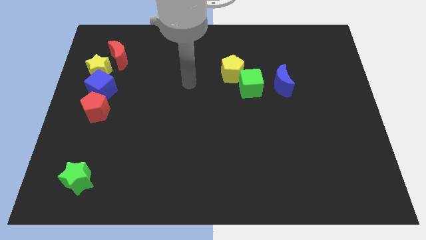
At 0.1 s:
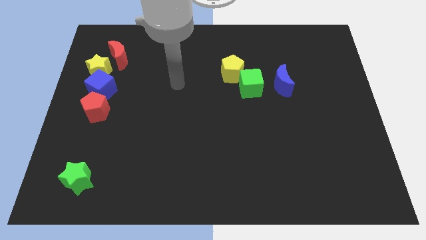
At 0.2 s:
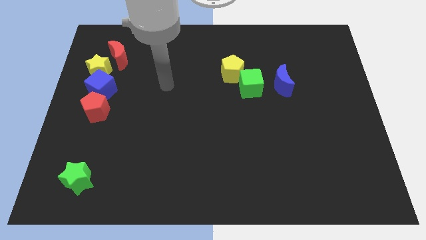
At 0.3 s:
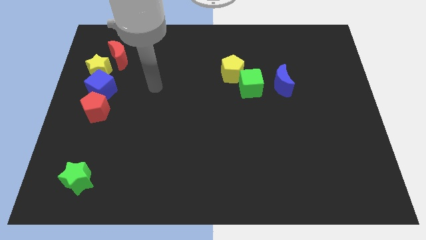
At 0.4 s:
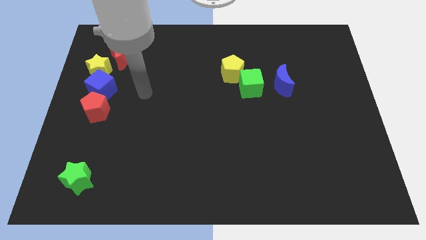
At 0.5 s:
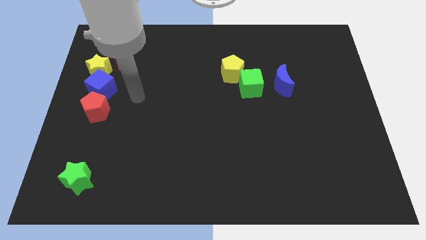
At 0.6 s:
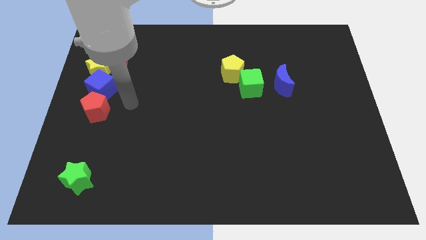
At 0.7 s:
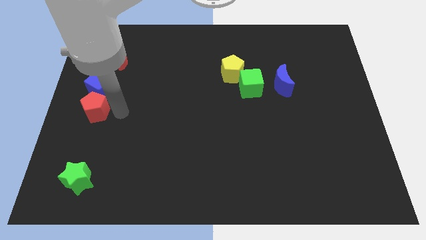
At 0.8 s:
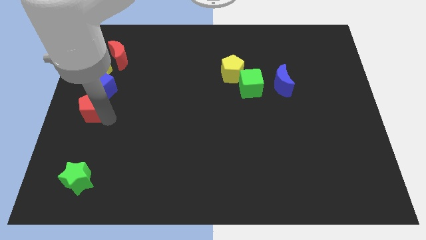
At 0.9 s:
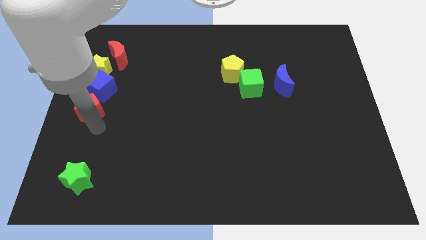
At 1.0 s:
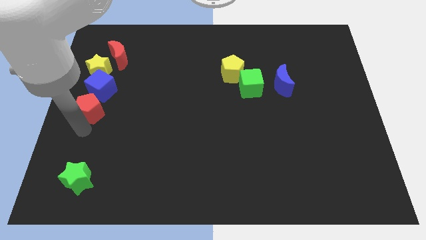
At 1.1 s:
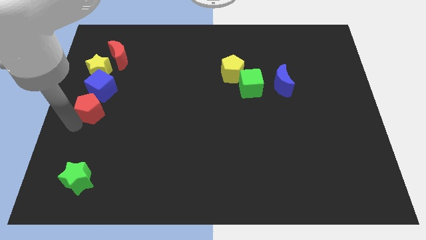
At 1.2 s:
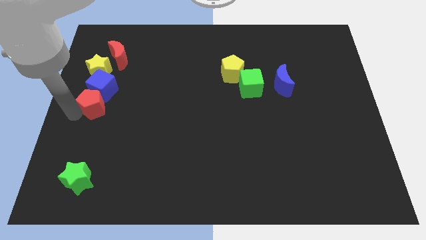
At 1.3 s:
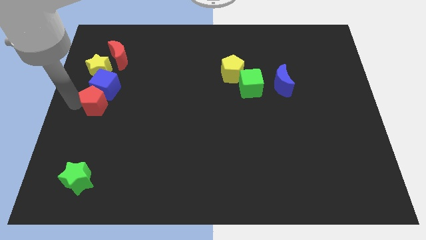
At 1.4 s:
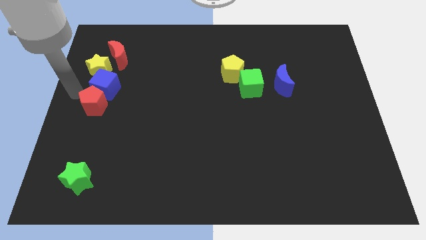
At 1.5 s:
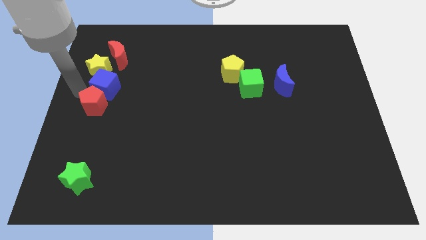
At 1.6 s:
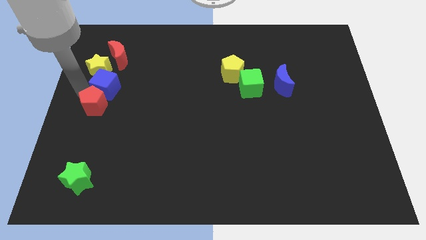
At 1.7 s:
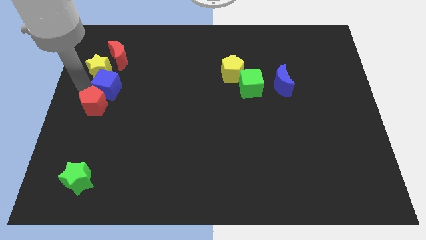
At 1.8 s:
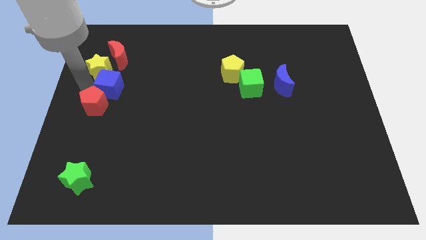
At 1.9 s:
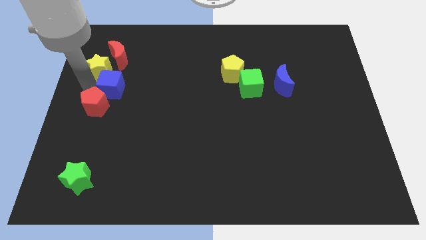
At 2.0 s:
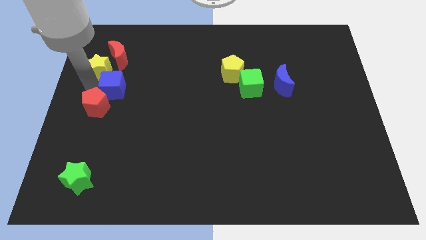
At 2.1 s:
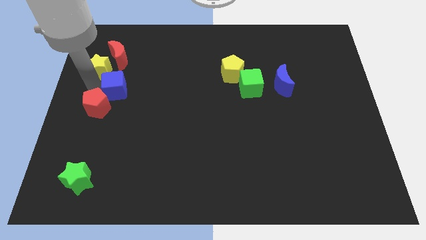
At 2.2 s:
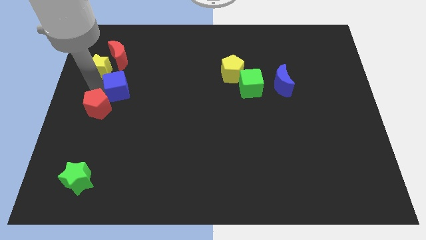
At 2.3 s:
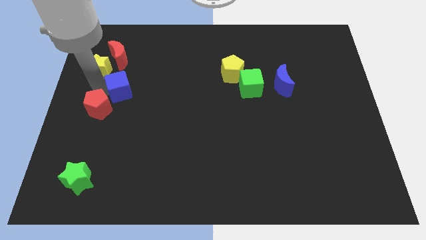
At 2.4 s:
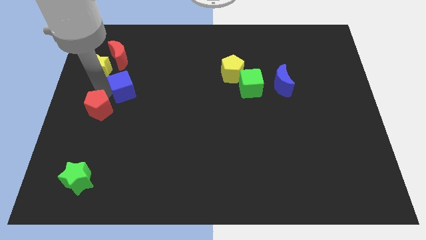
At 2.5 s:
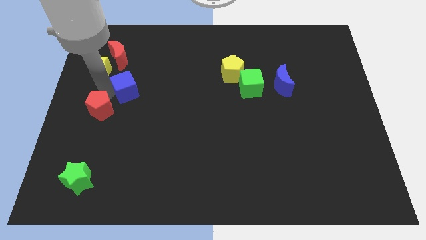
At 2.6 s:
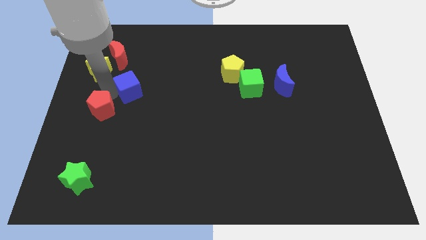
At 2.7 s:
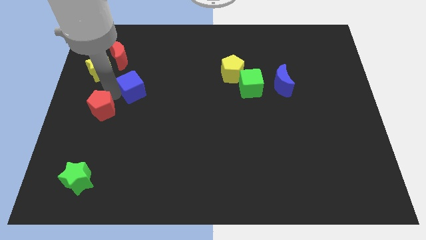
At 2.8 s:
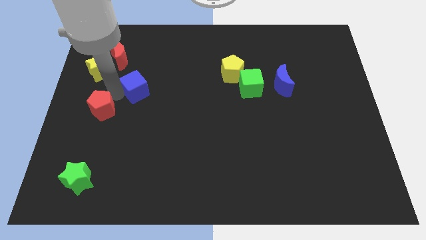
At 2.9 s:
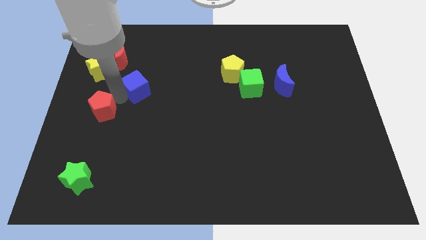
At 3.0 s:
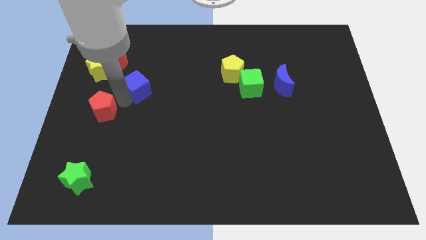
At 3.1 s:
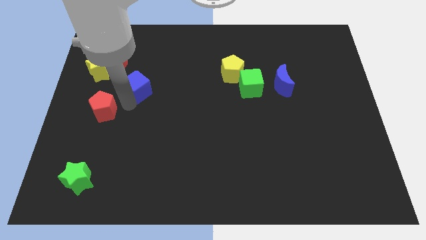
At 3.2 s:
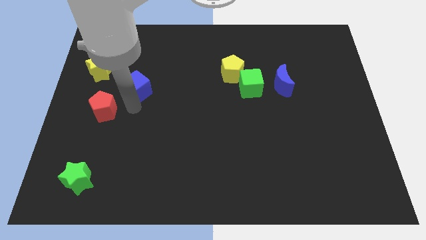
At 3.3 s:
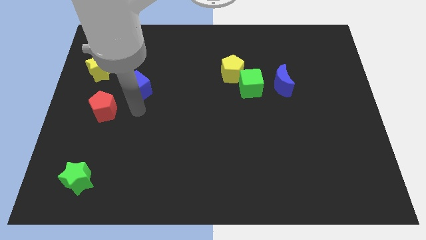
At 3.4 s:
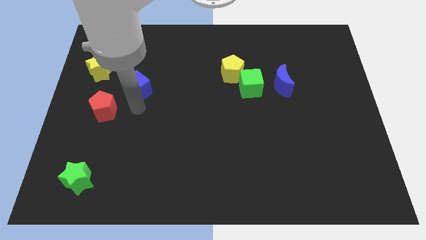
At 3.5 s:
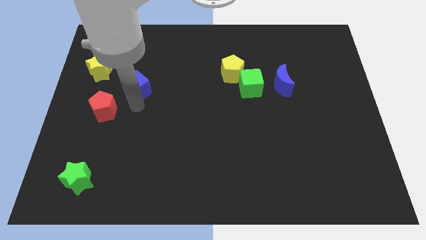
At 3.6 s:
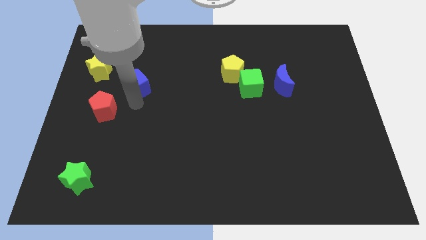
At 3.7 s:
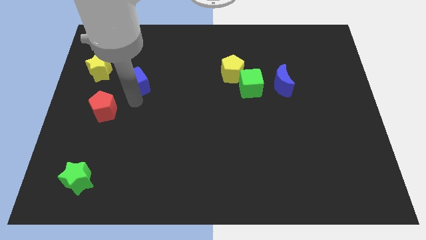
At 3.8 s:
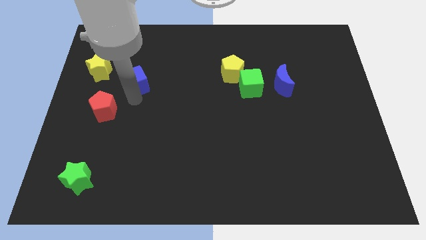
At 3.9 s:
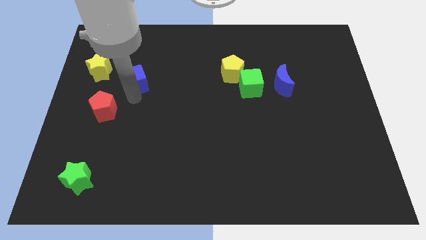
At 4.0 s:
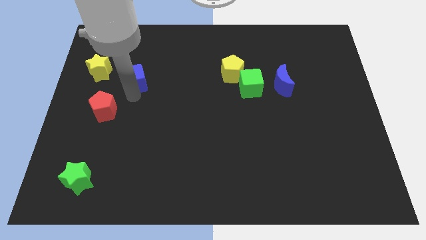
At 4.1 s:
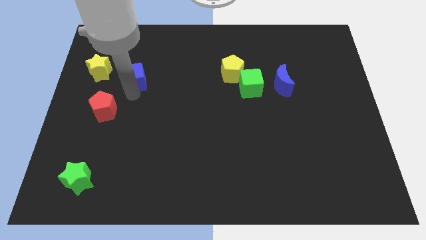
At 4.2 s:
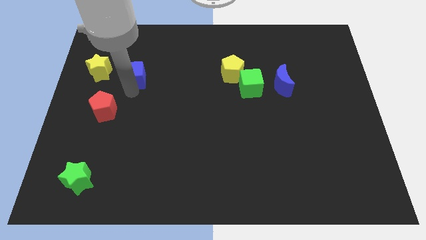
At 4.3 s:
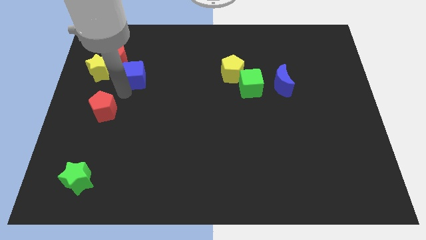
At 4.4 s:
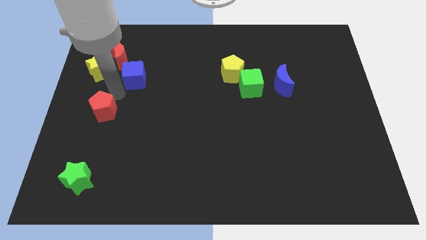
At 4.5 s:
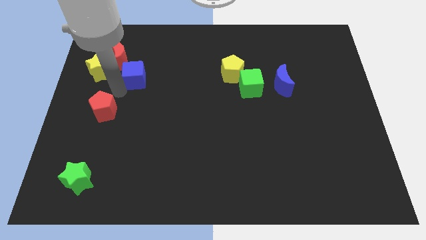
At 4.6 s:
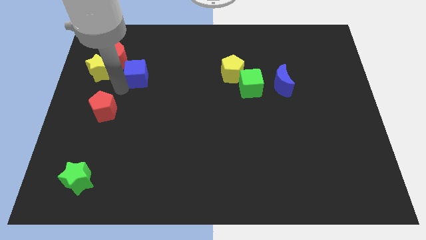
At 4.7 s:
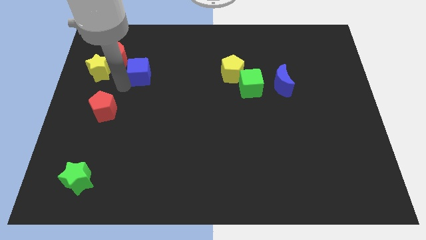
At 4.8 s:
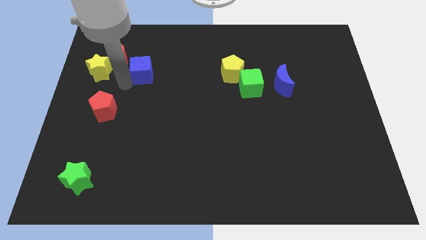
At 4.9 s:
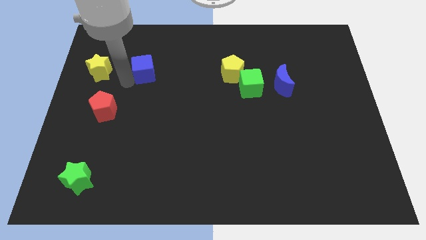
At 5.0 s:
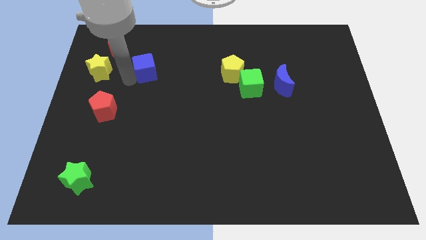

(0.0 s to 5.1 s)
move the blue cube just right of the red moon

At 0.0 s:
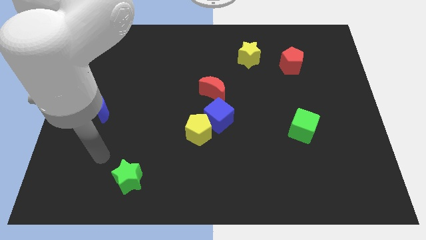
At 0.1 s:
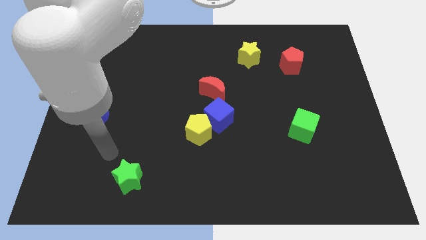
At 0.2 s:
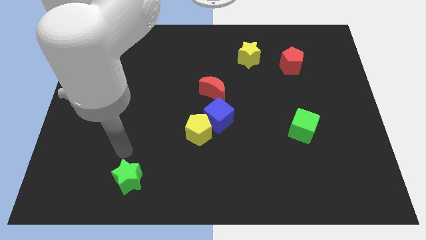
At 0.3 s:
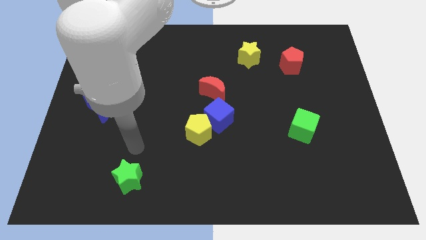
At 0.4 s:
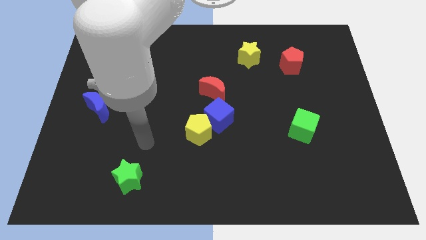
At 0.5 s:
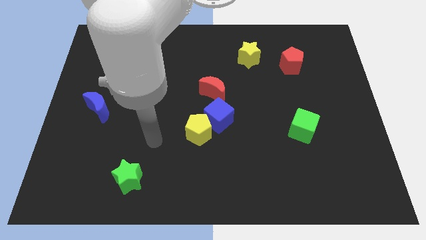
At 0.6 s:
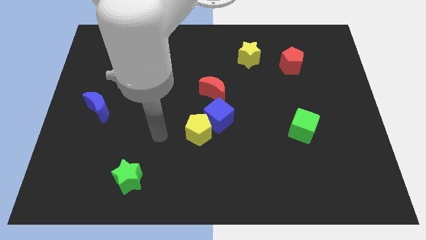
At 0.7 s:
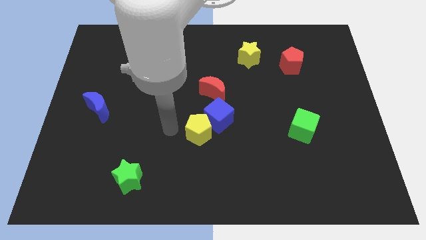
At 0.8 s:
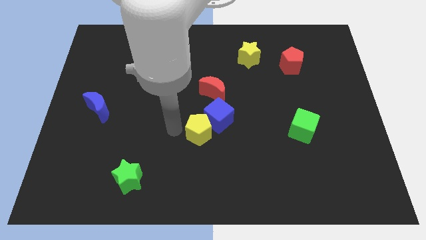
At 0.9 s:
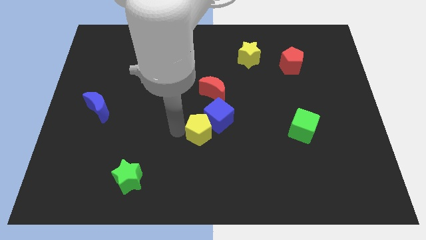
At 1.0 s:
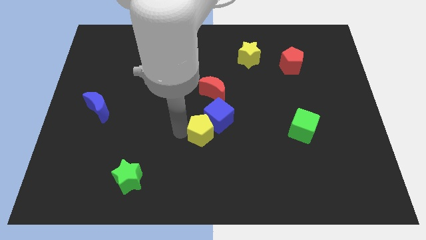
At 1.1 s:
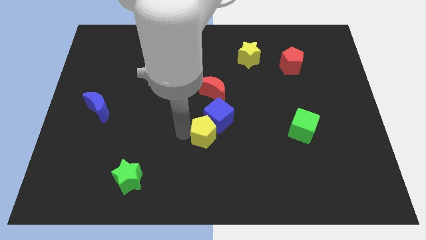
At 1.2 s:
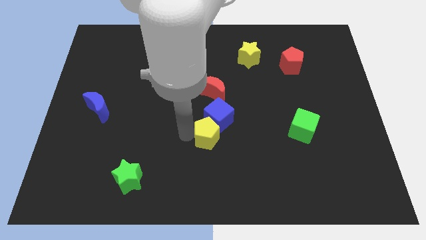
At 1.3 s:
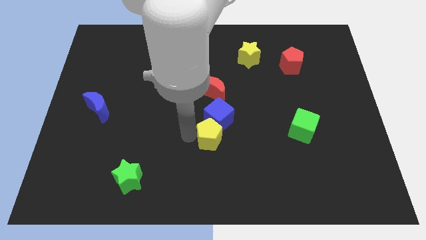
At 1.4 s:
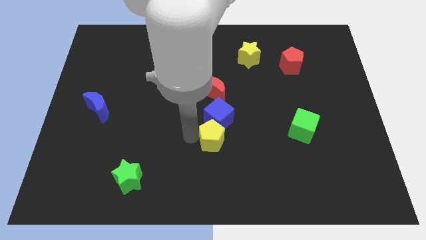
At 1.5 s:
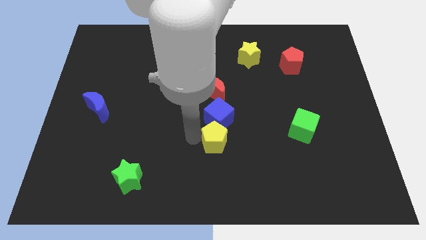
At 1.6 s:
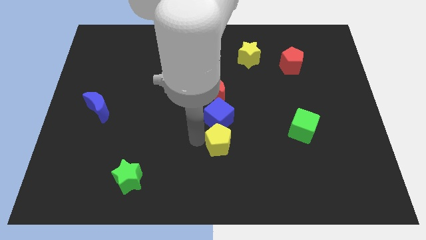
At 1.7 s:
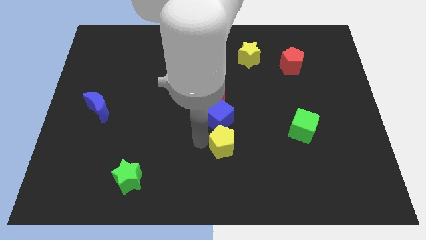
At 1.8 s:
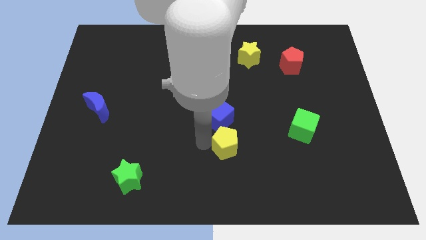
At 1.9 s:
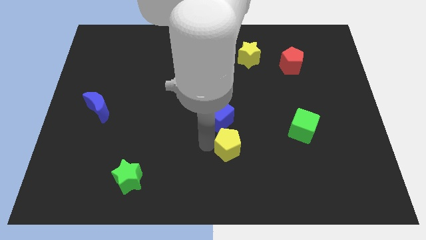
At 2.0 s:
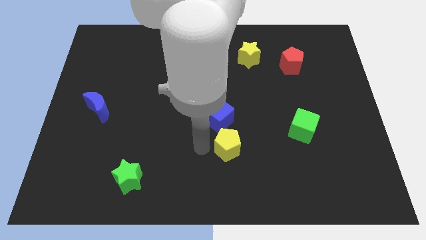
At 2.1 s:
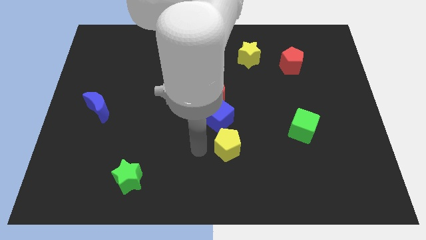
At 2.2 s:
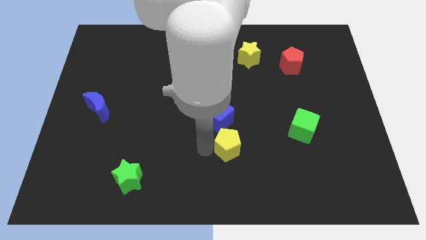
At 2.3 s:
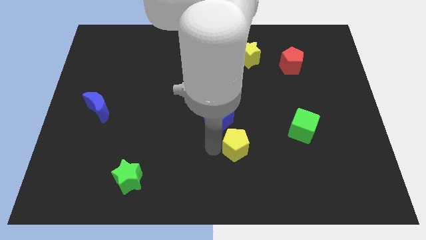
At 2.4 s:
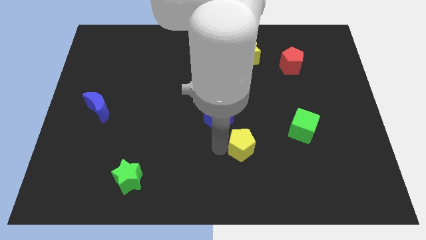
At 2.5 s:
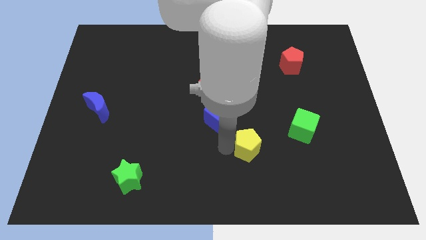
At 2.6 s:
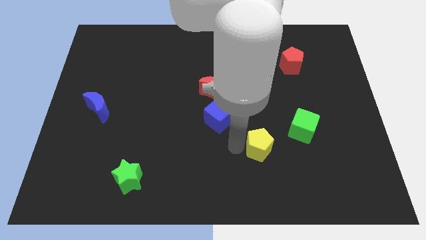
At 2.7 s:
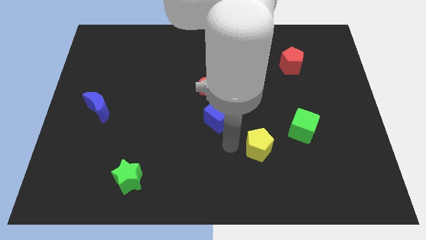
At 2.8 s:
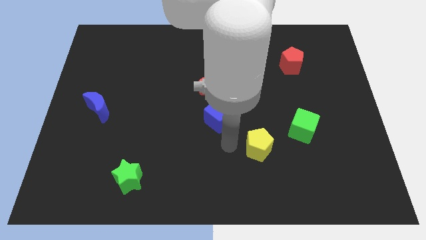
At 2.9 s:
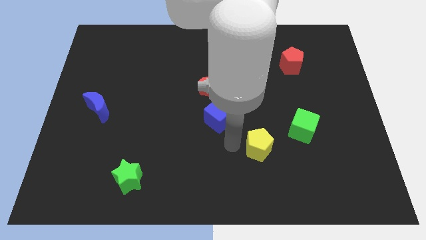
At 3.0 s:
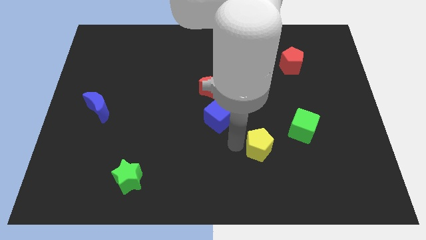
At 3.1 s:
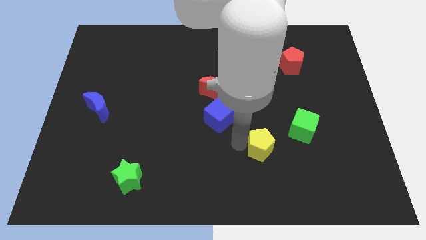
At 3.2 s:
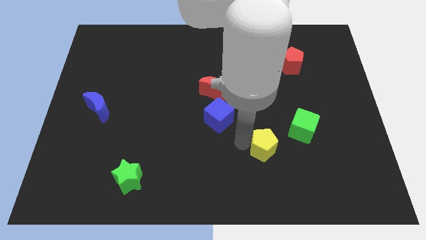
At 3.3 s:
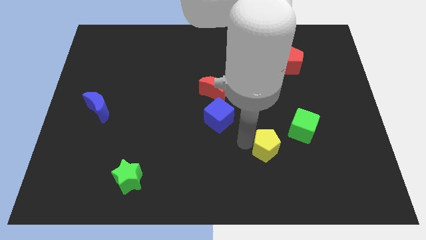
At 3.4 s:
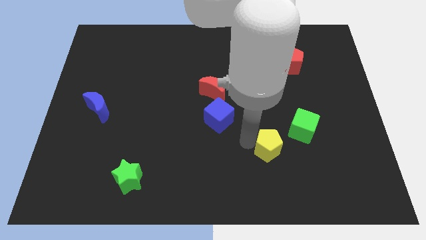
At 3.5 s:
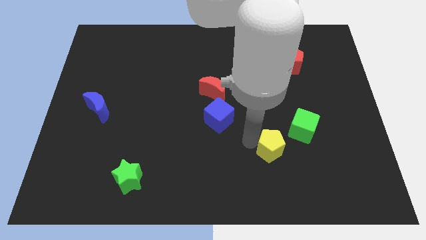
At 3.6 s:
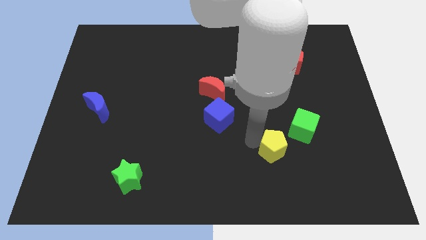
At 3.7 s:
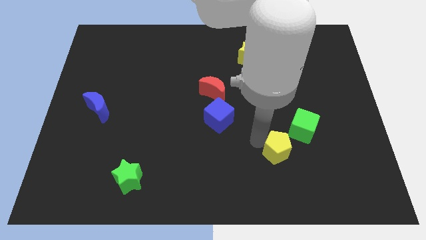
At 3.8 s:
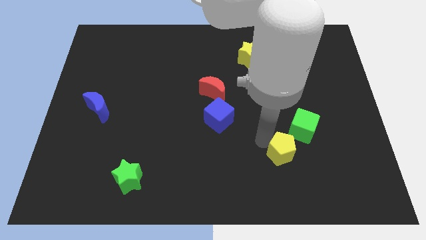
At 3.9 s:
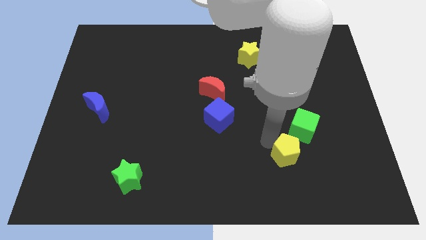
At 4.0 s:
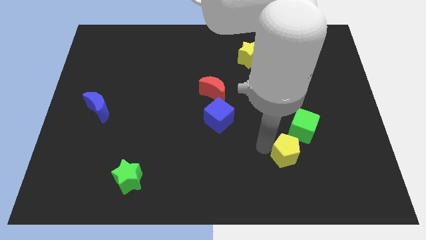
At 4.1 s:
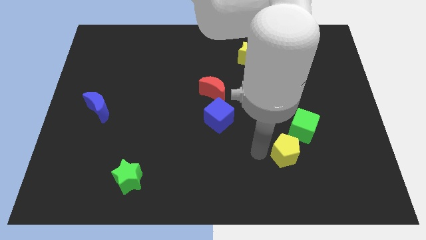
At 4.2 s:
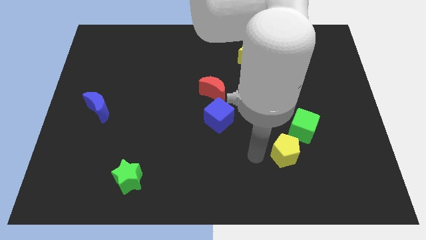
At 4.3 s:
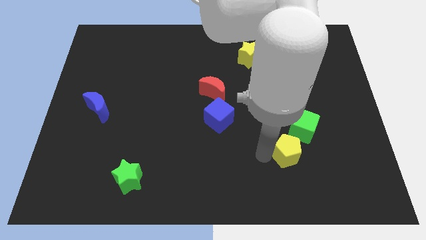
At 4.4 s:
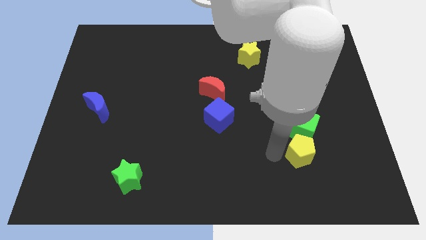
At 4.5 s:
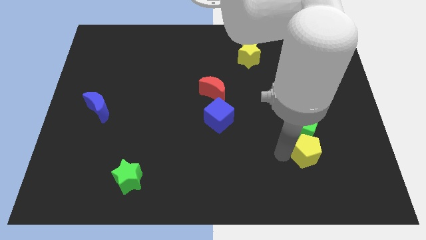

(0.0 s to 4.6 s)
slide the yellow pentagon to the bottom right of the green cube
